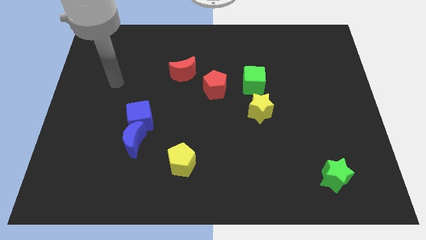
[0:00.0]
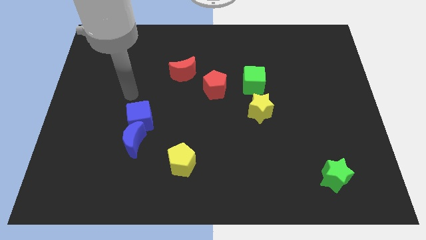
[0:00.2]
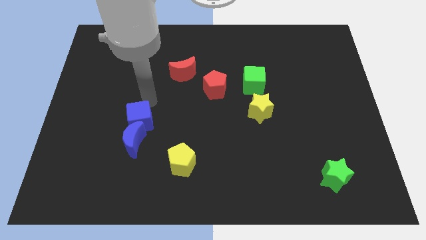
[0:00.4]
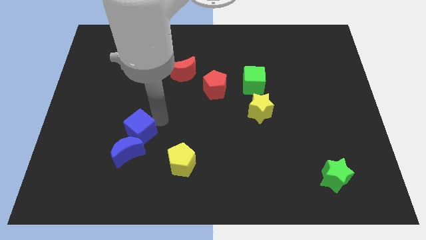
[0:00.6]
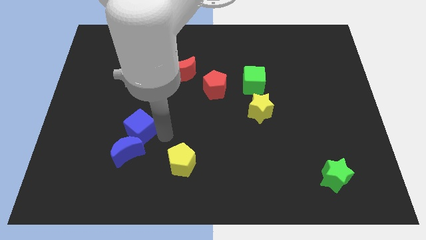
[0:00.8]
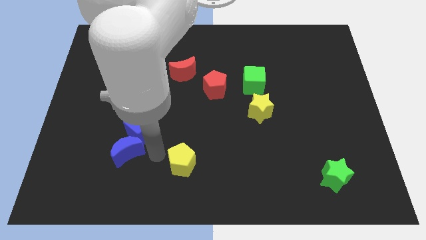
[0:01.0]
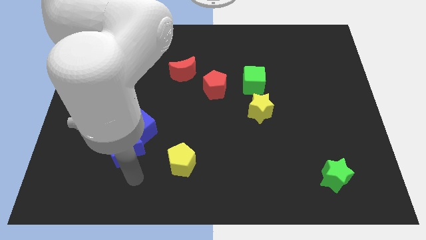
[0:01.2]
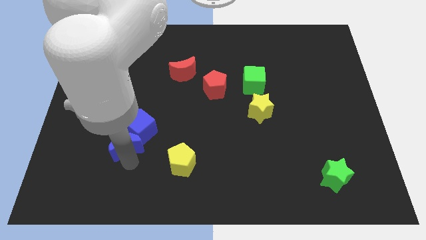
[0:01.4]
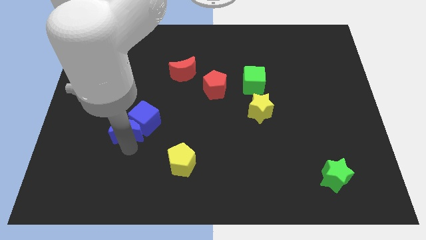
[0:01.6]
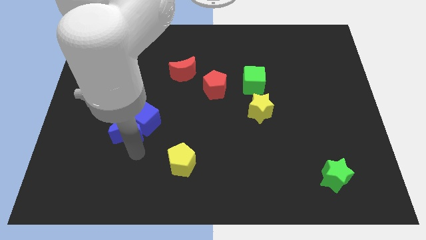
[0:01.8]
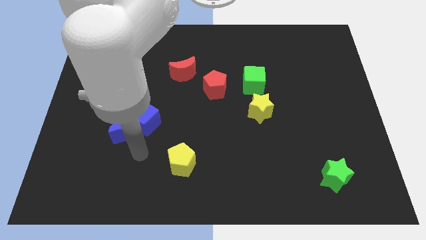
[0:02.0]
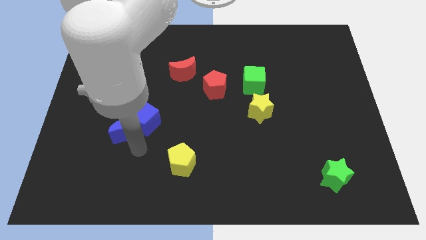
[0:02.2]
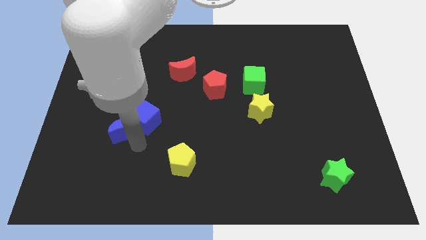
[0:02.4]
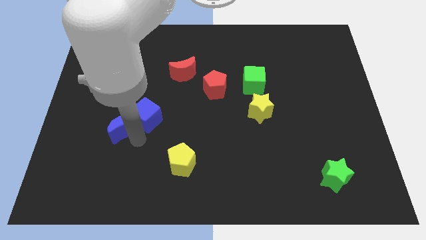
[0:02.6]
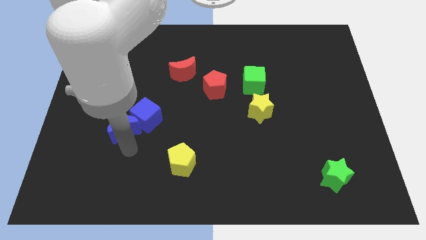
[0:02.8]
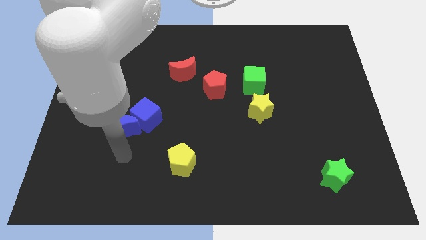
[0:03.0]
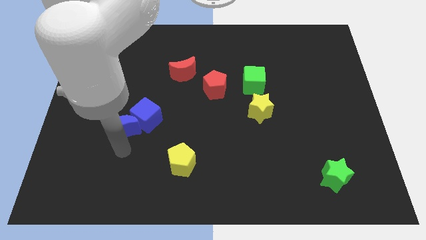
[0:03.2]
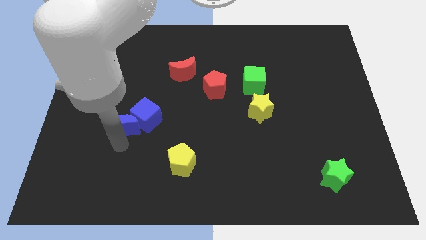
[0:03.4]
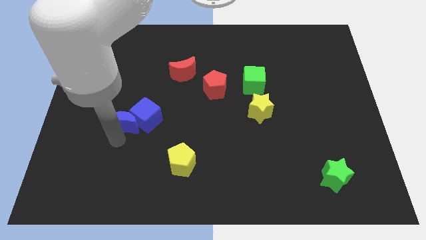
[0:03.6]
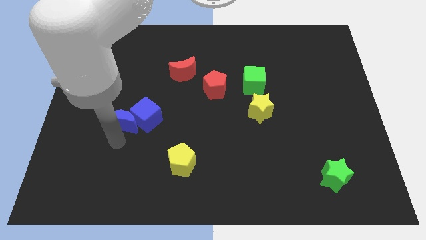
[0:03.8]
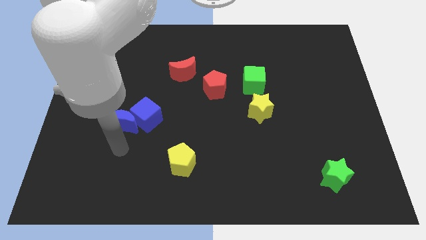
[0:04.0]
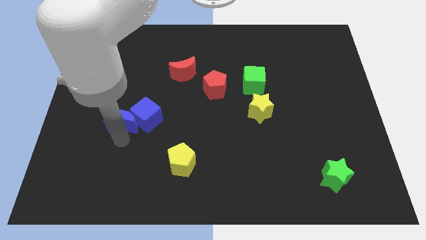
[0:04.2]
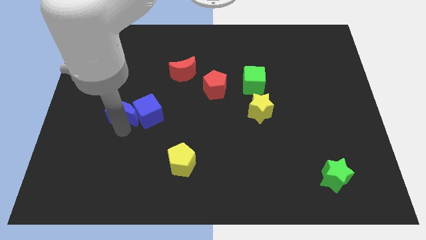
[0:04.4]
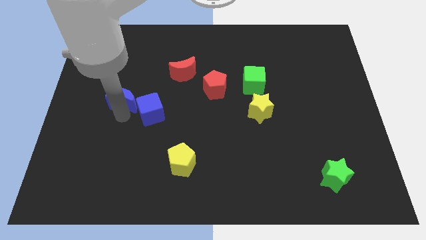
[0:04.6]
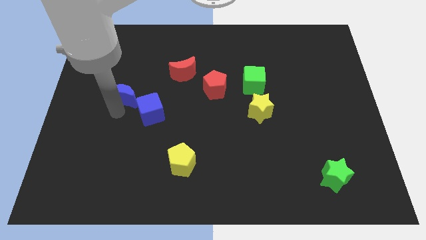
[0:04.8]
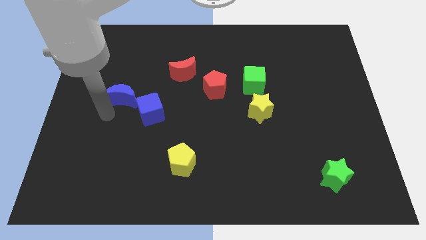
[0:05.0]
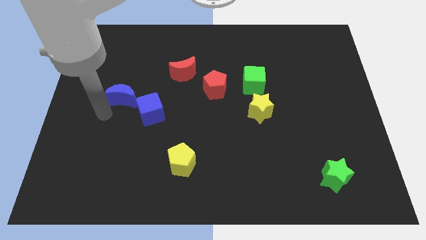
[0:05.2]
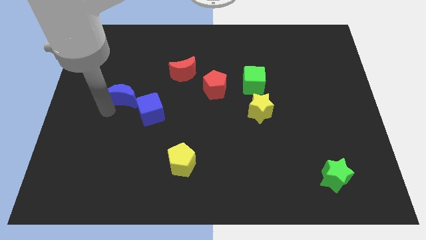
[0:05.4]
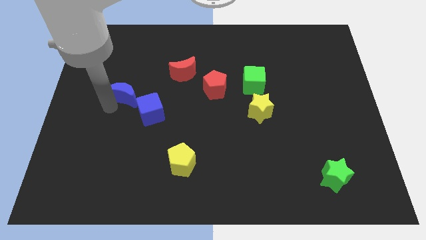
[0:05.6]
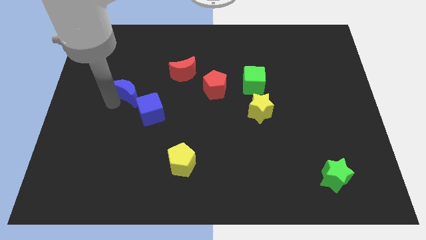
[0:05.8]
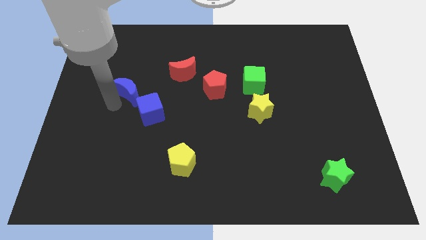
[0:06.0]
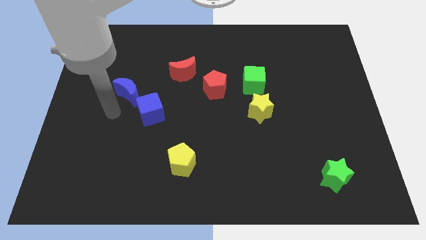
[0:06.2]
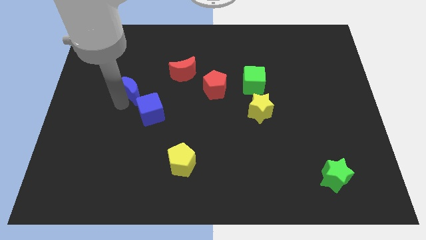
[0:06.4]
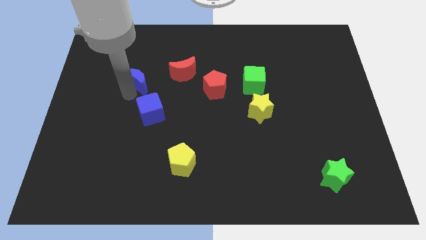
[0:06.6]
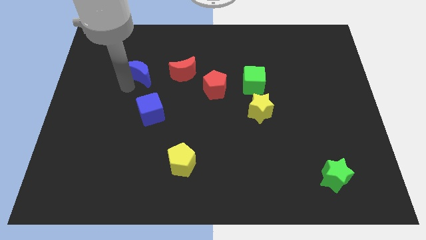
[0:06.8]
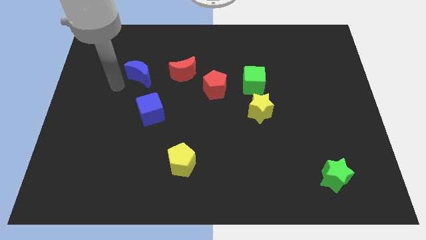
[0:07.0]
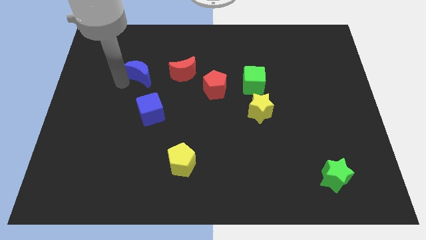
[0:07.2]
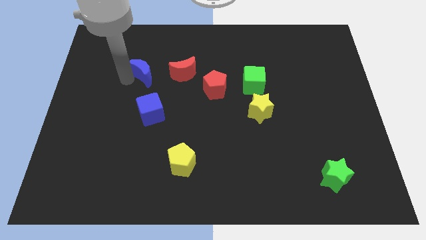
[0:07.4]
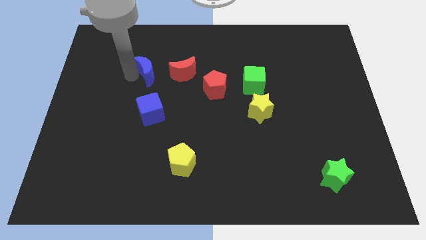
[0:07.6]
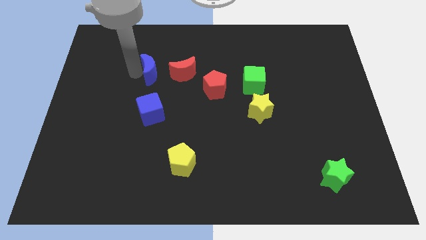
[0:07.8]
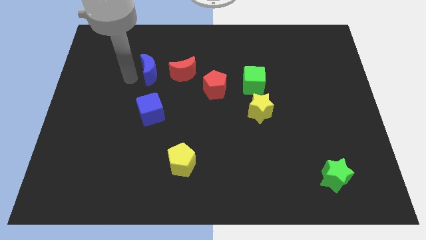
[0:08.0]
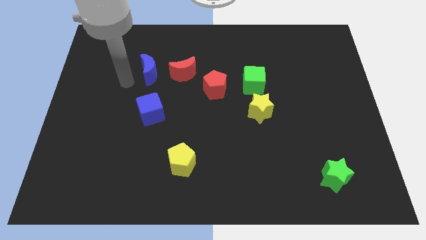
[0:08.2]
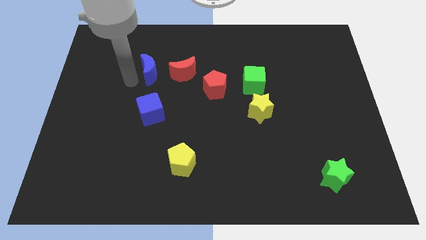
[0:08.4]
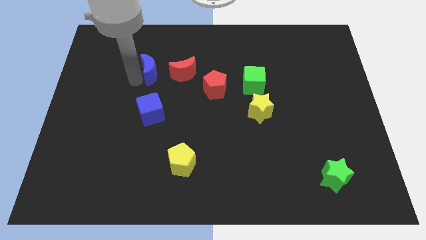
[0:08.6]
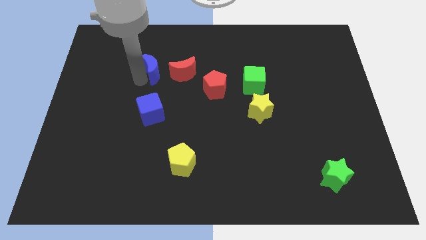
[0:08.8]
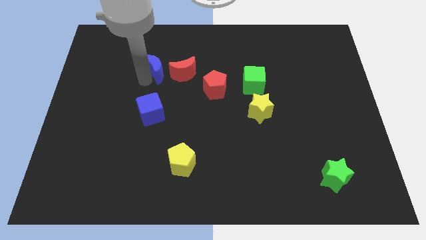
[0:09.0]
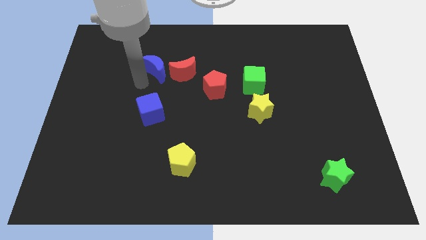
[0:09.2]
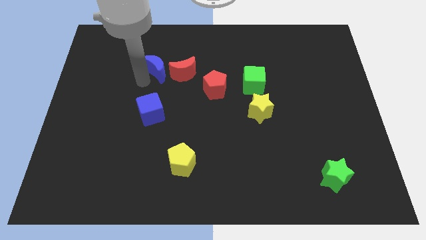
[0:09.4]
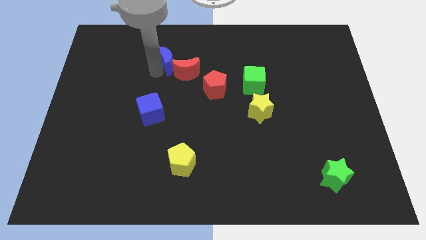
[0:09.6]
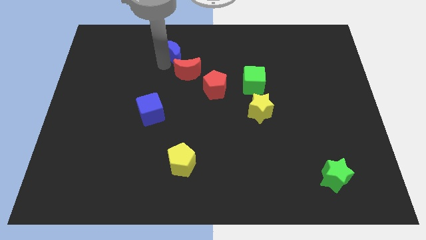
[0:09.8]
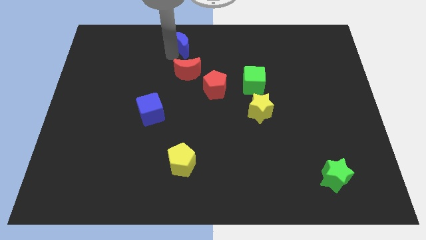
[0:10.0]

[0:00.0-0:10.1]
put the blue moon to the top

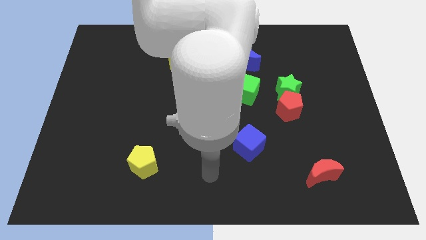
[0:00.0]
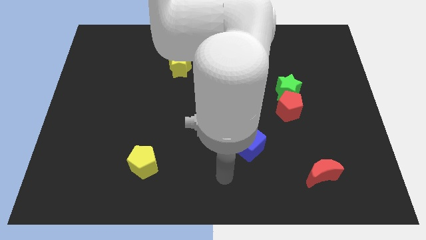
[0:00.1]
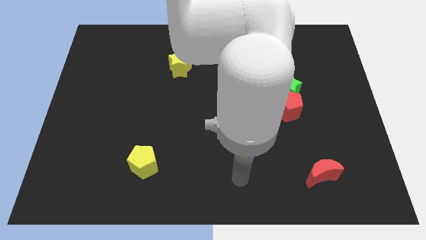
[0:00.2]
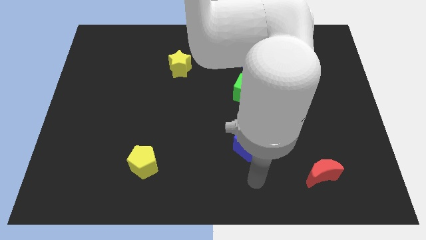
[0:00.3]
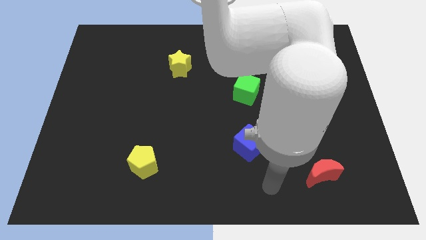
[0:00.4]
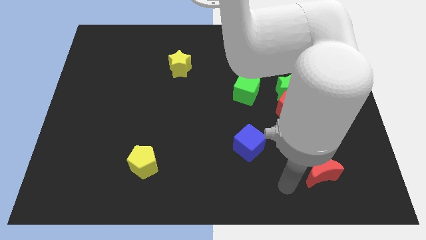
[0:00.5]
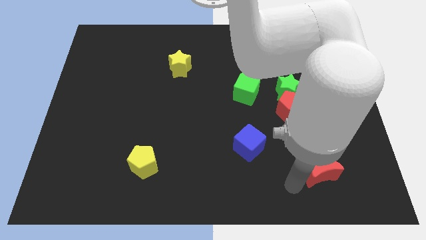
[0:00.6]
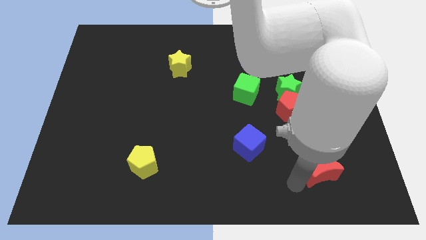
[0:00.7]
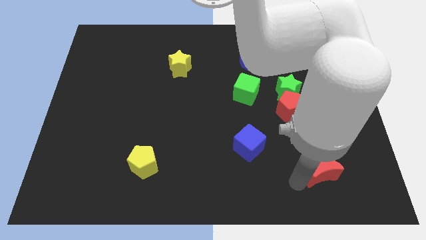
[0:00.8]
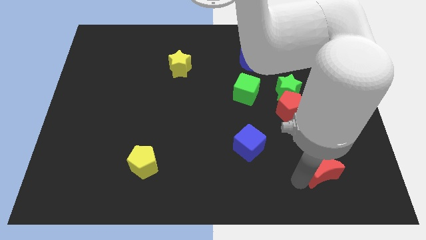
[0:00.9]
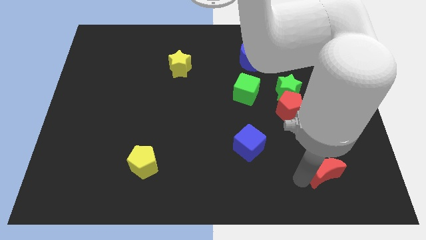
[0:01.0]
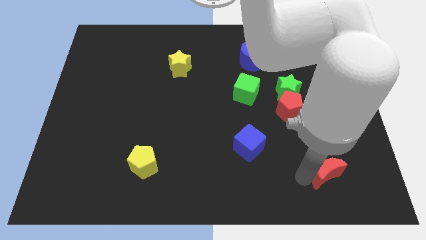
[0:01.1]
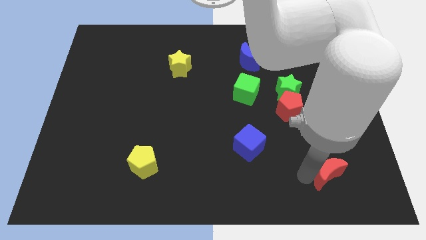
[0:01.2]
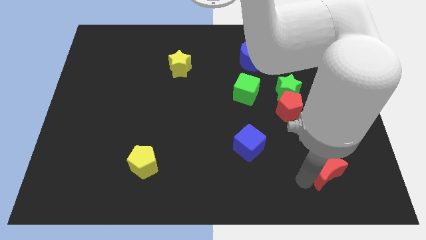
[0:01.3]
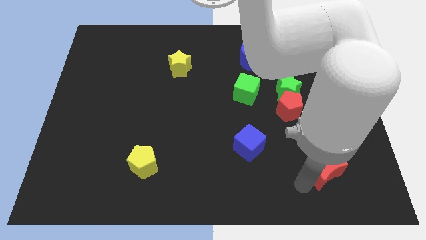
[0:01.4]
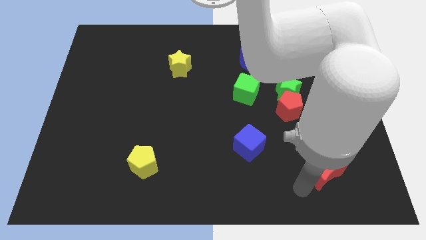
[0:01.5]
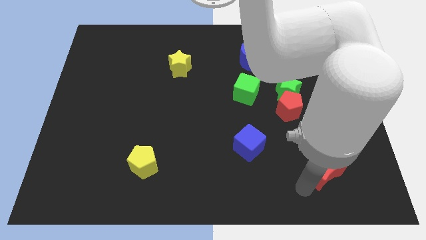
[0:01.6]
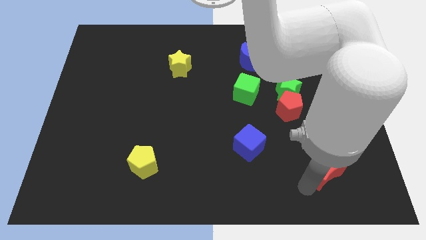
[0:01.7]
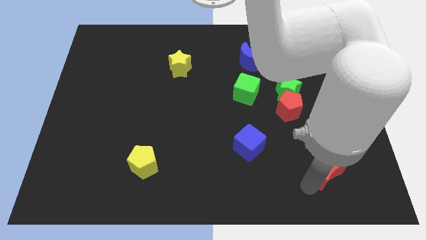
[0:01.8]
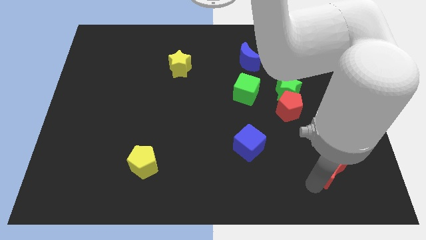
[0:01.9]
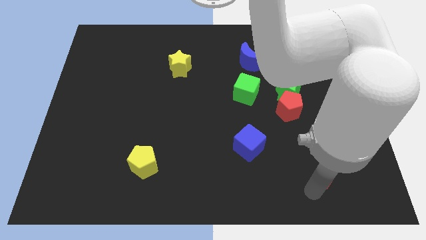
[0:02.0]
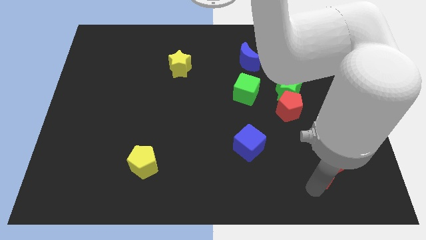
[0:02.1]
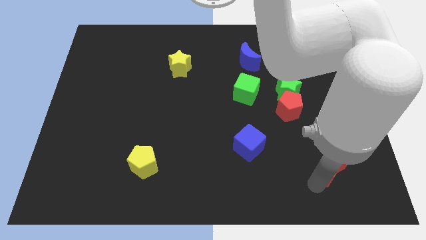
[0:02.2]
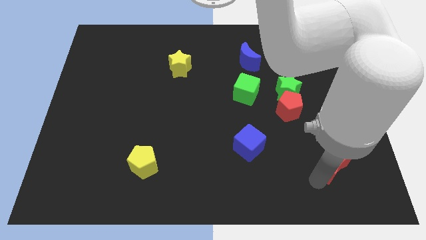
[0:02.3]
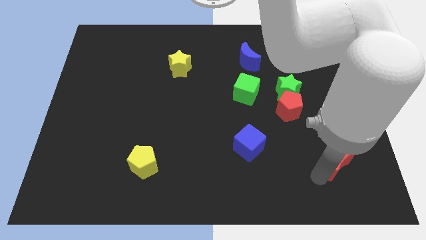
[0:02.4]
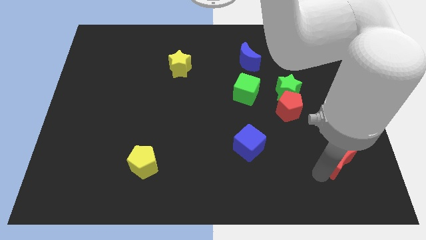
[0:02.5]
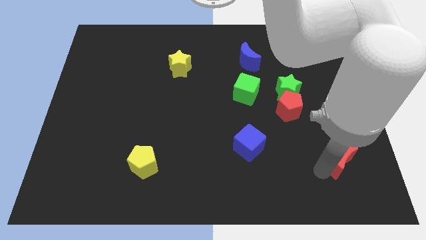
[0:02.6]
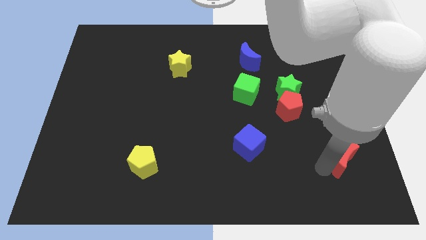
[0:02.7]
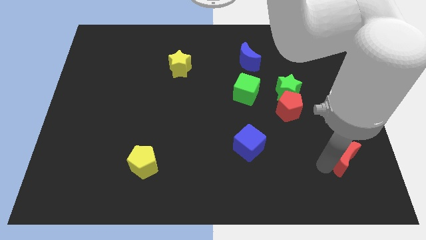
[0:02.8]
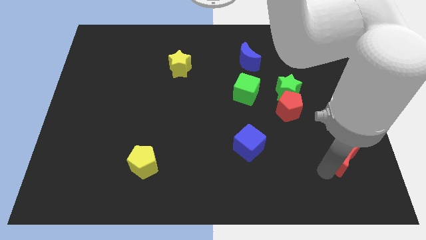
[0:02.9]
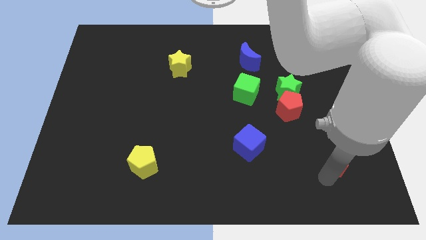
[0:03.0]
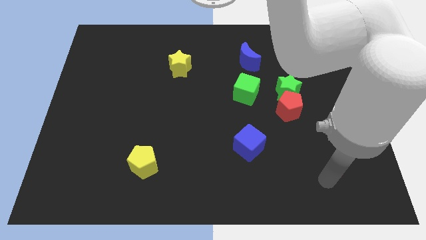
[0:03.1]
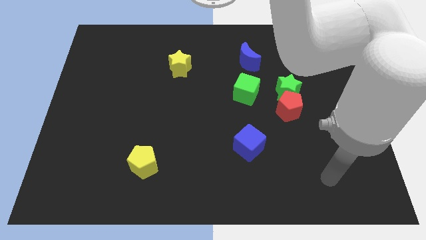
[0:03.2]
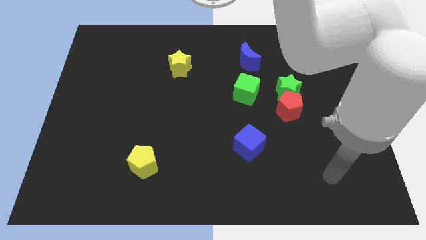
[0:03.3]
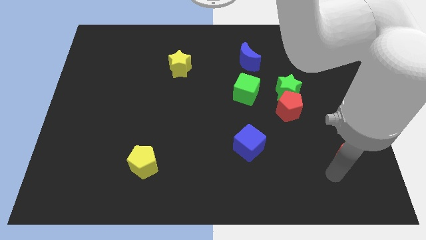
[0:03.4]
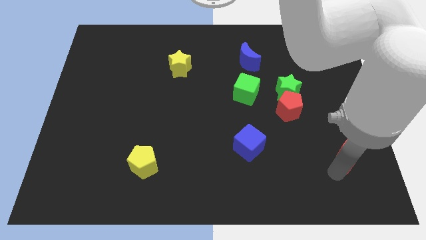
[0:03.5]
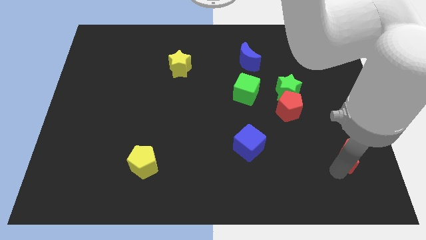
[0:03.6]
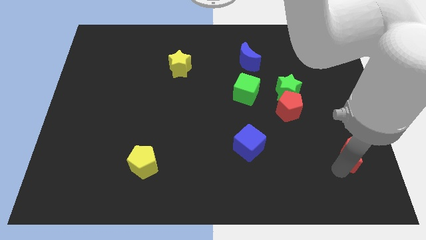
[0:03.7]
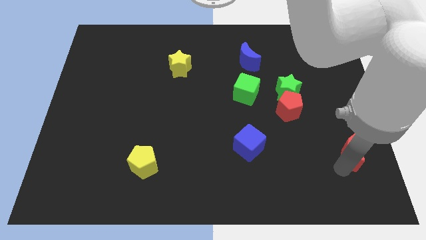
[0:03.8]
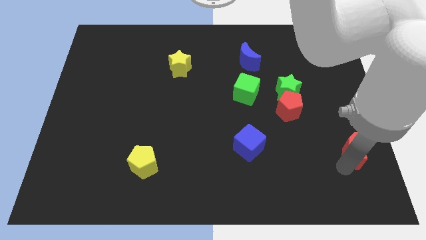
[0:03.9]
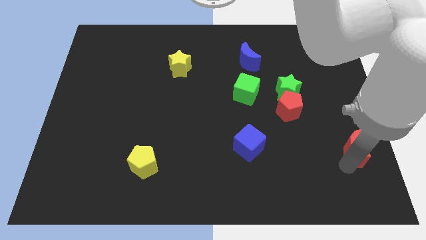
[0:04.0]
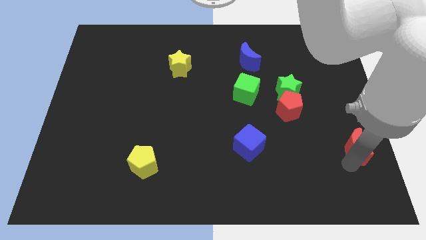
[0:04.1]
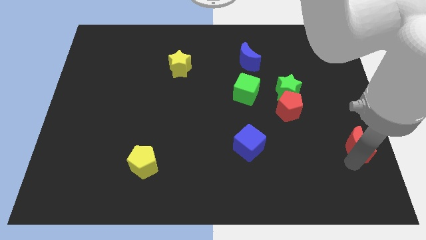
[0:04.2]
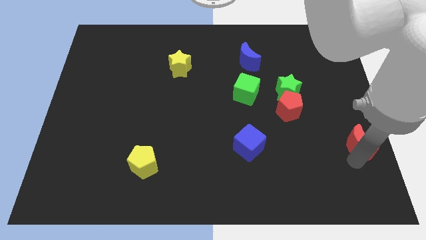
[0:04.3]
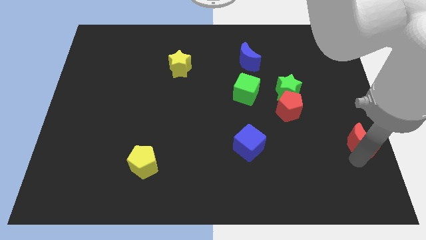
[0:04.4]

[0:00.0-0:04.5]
move the red moon to the center right
